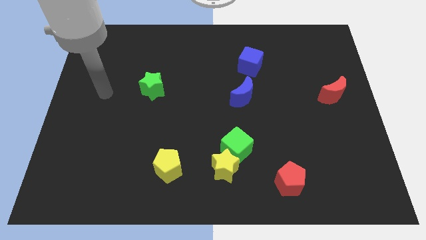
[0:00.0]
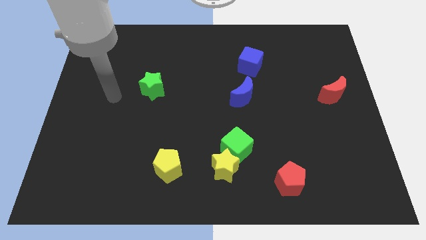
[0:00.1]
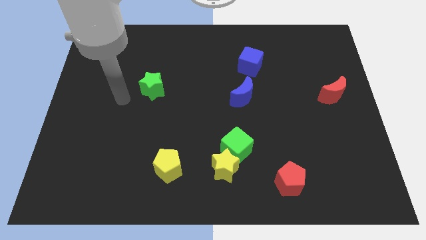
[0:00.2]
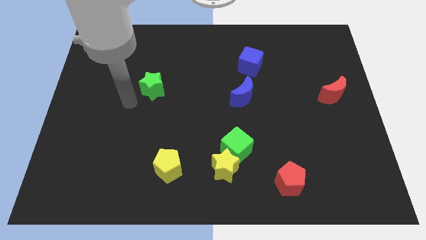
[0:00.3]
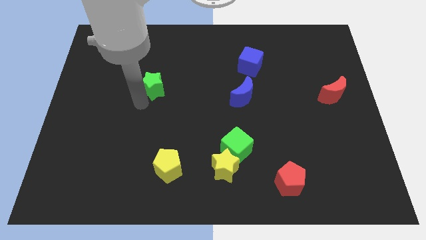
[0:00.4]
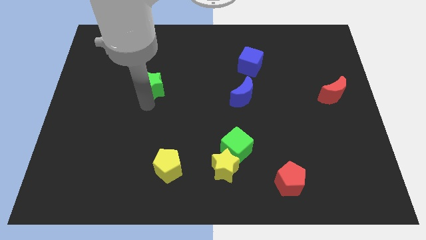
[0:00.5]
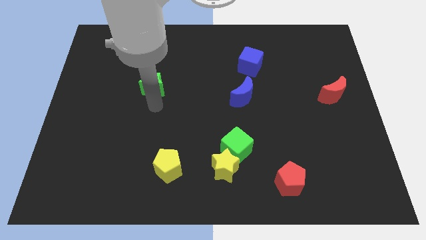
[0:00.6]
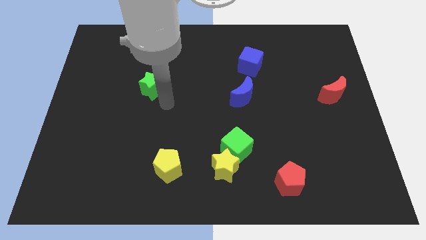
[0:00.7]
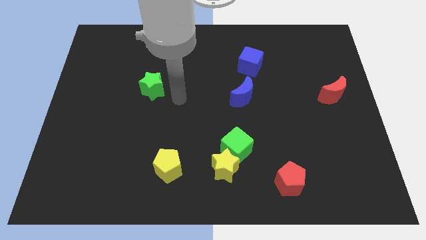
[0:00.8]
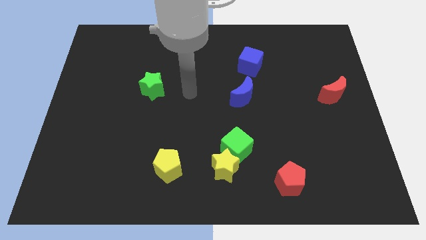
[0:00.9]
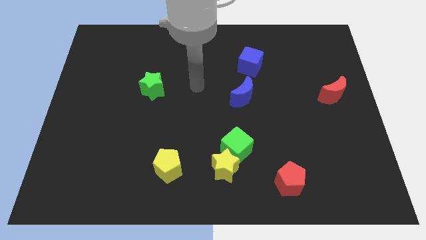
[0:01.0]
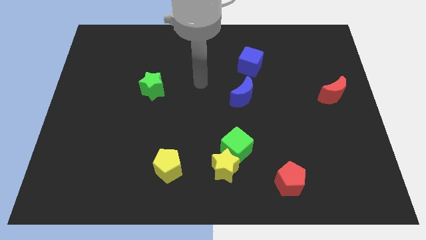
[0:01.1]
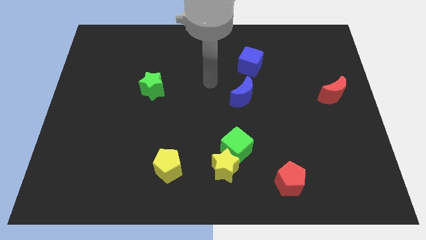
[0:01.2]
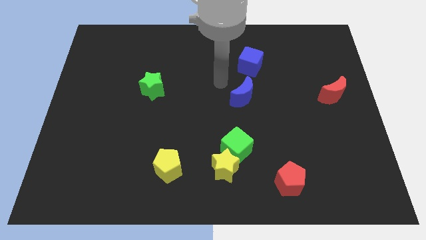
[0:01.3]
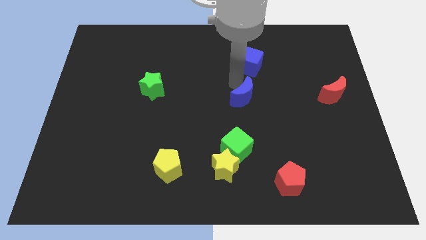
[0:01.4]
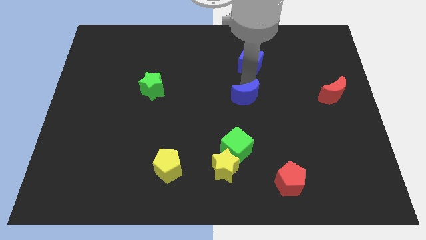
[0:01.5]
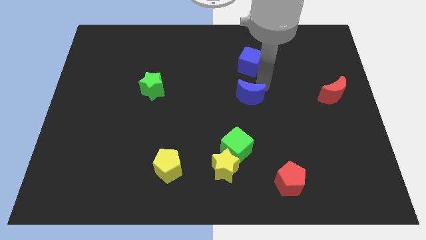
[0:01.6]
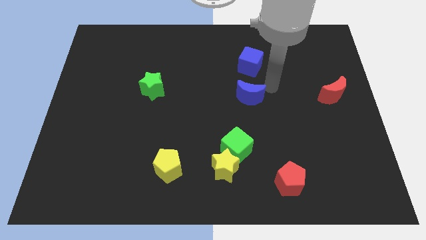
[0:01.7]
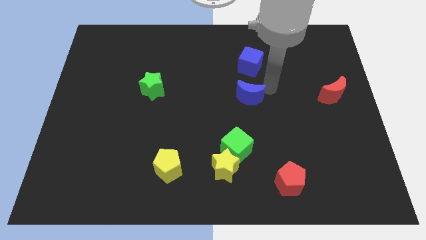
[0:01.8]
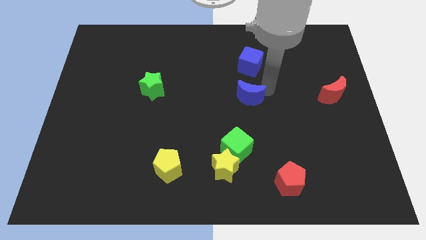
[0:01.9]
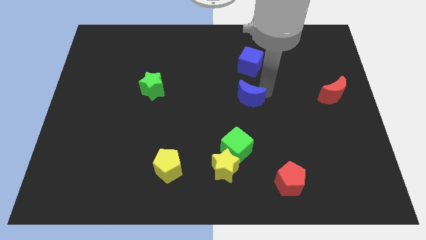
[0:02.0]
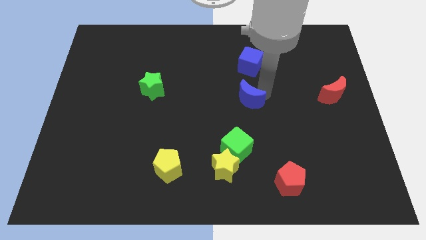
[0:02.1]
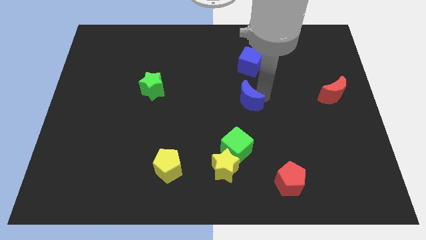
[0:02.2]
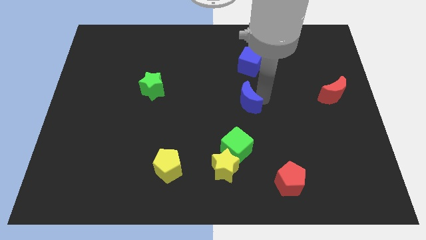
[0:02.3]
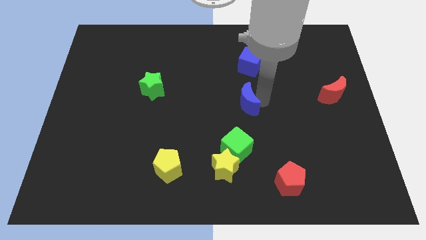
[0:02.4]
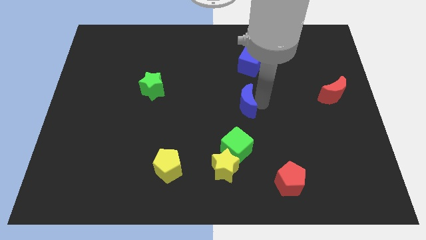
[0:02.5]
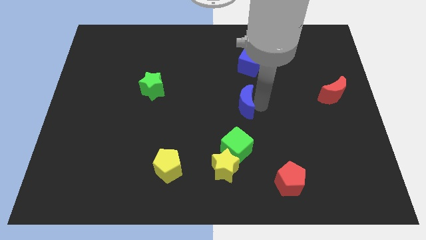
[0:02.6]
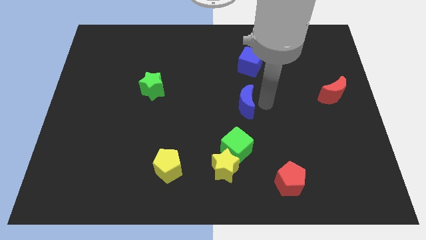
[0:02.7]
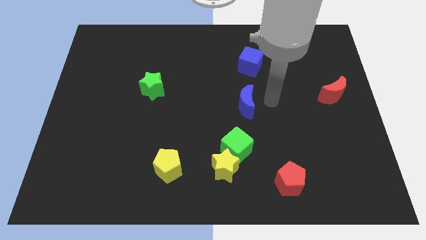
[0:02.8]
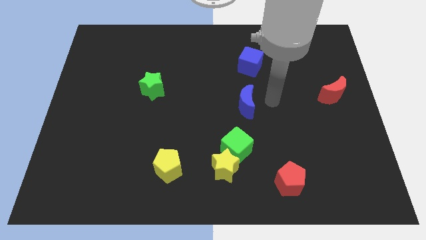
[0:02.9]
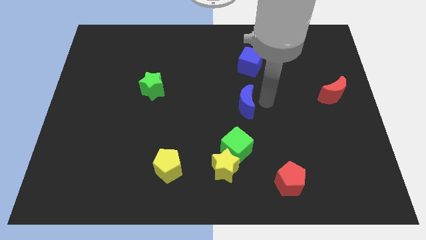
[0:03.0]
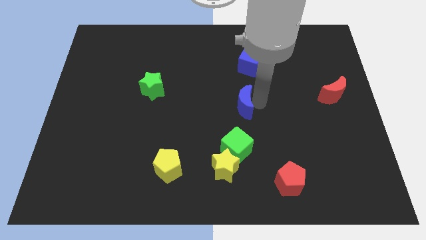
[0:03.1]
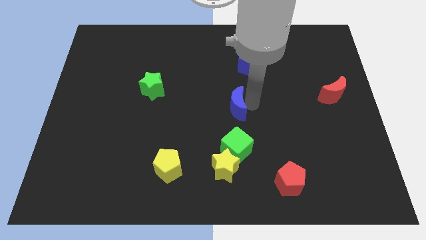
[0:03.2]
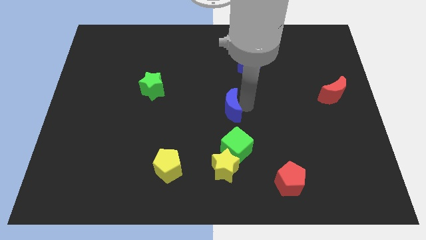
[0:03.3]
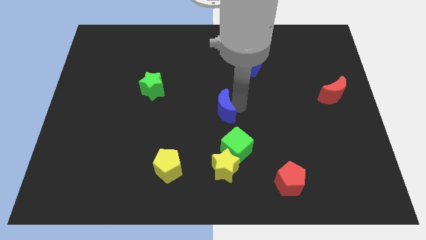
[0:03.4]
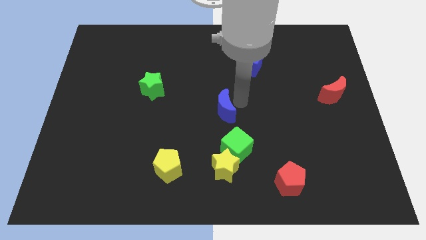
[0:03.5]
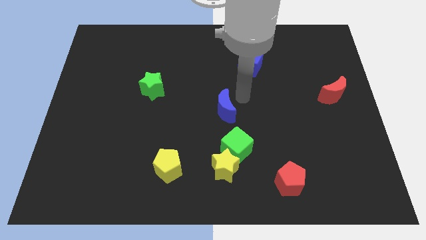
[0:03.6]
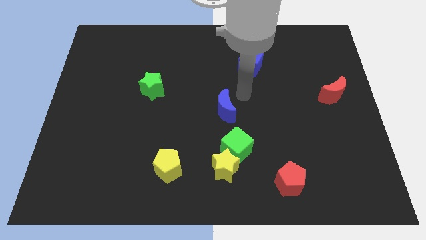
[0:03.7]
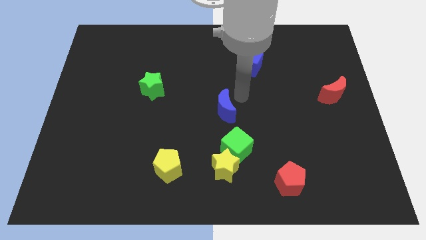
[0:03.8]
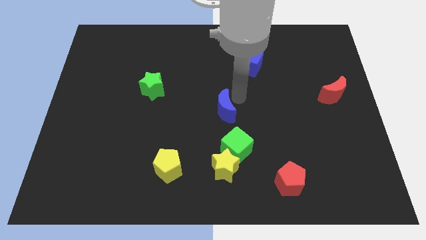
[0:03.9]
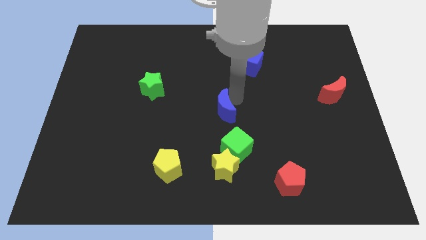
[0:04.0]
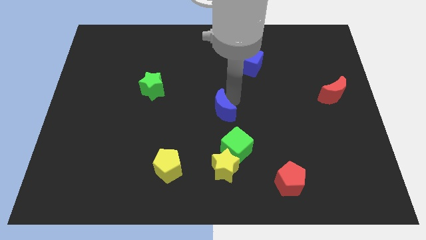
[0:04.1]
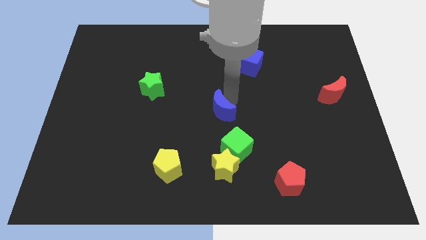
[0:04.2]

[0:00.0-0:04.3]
move the blue moon a little bit downwards and to the left diagonally

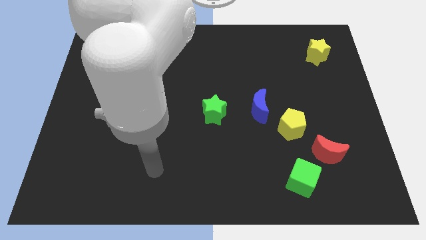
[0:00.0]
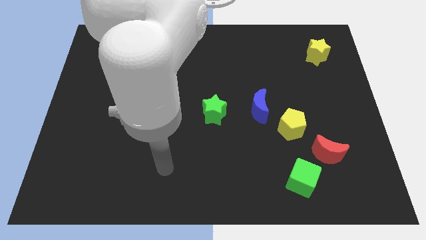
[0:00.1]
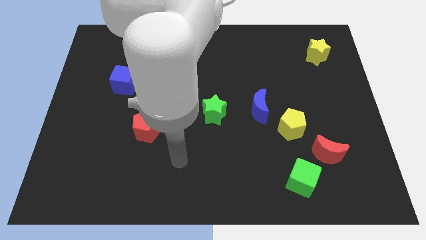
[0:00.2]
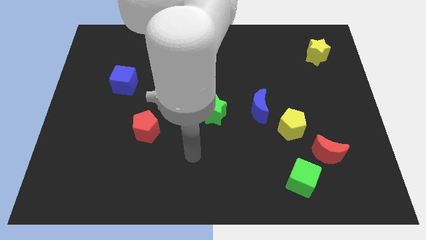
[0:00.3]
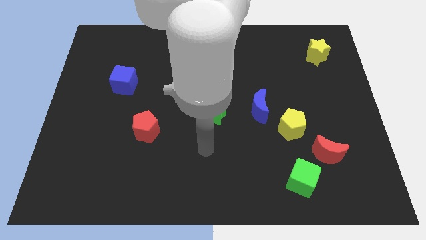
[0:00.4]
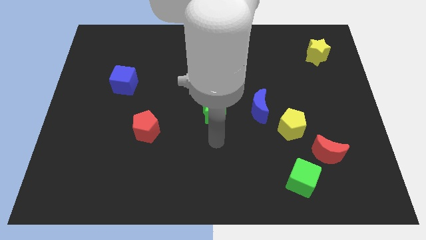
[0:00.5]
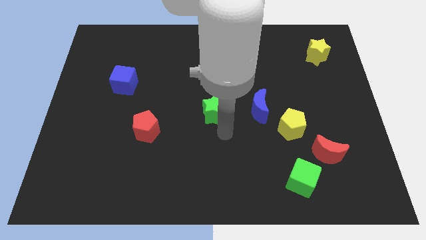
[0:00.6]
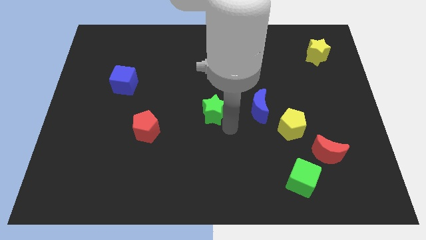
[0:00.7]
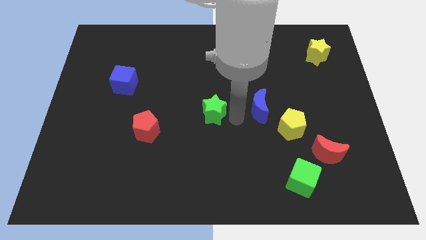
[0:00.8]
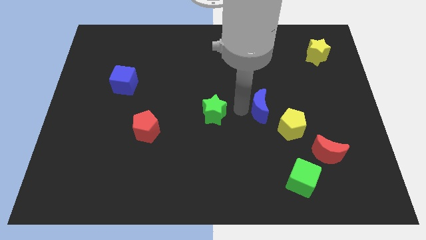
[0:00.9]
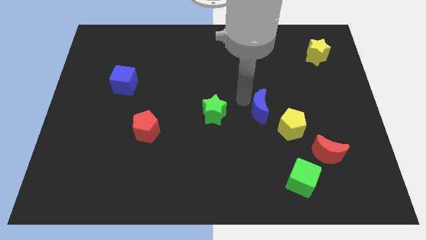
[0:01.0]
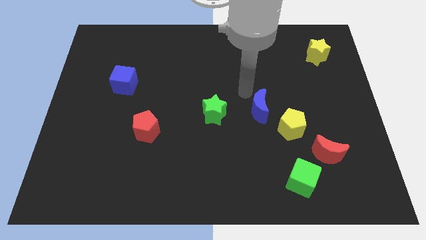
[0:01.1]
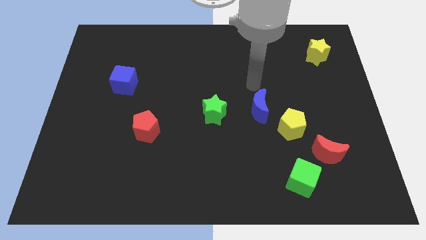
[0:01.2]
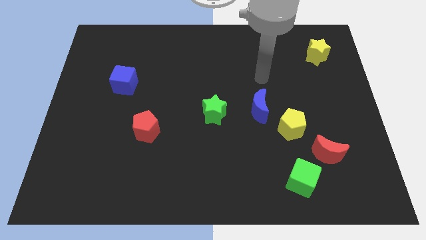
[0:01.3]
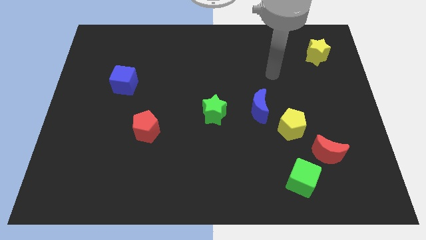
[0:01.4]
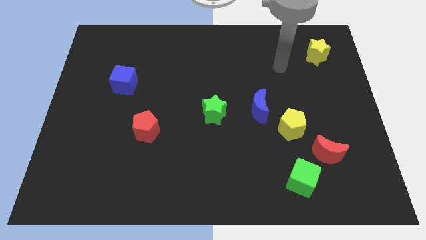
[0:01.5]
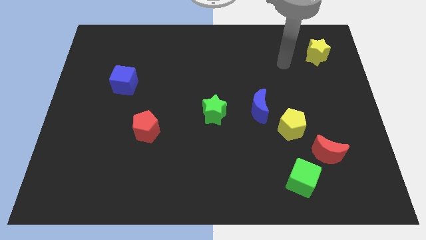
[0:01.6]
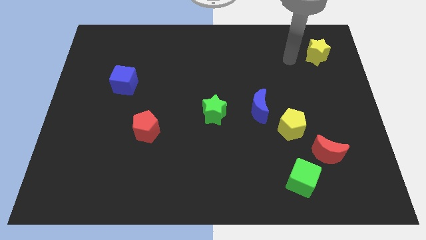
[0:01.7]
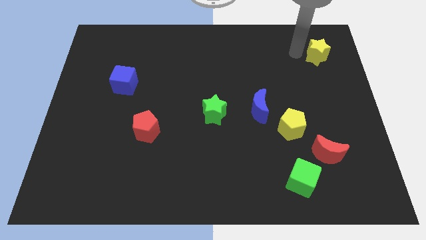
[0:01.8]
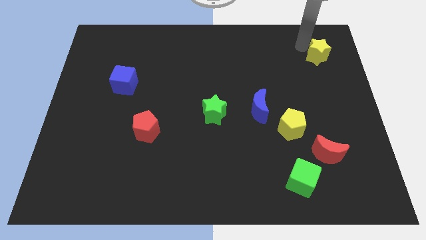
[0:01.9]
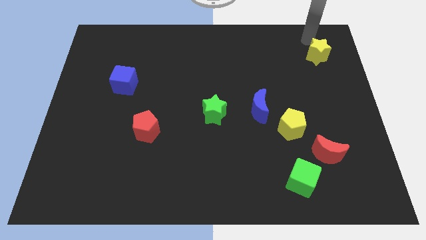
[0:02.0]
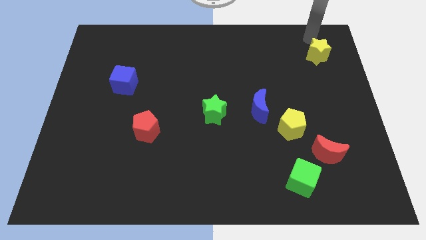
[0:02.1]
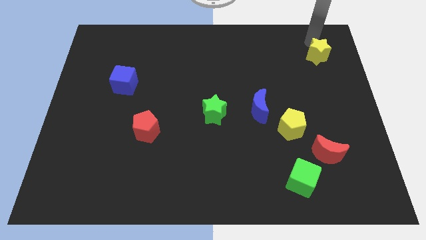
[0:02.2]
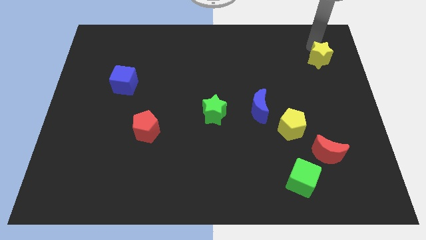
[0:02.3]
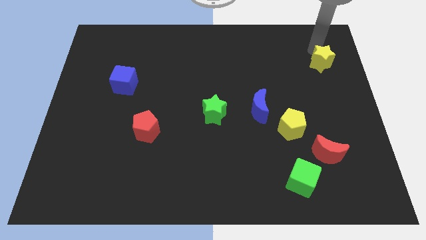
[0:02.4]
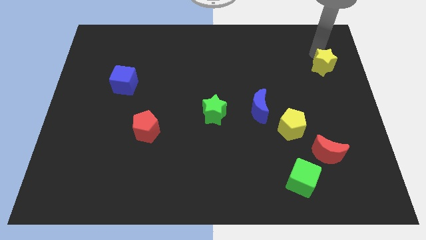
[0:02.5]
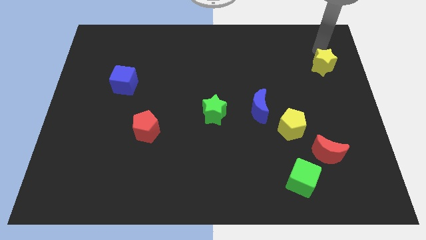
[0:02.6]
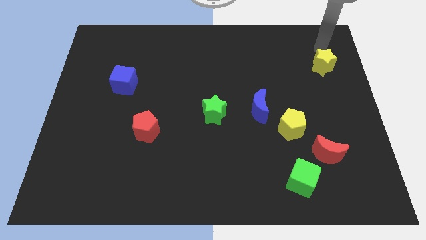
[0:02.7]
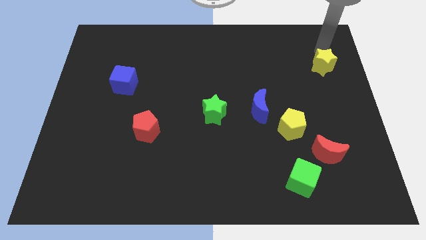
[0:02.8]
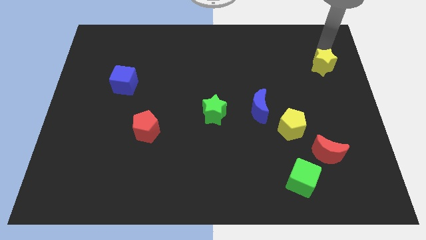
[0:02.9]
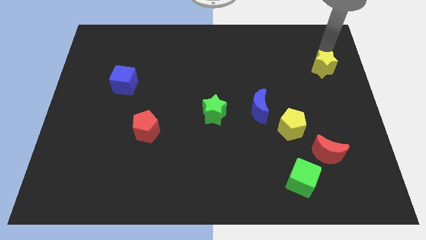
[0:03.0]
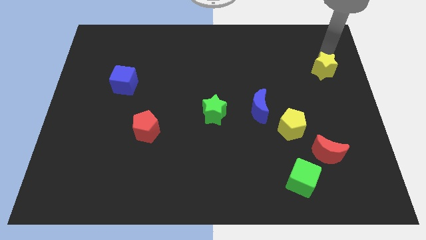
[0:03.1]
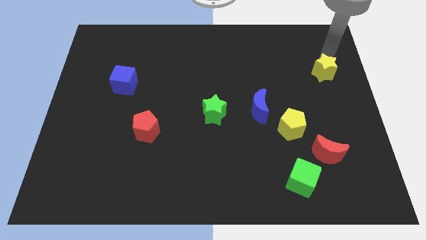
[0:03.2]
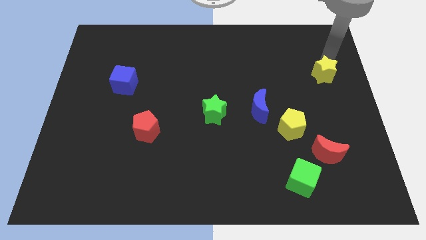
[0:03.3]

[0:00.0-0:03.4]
slightly slide the yellow star downwards

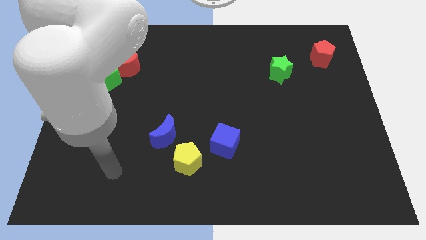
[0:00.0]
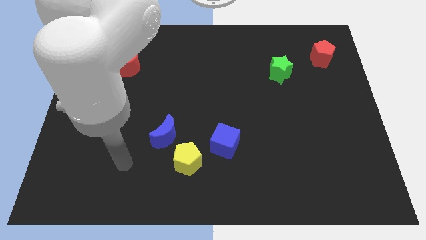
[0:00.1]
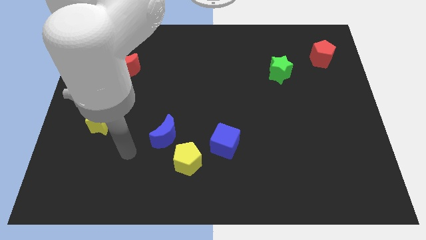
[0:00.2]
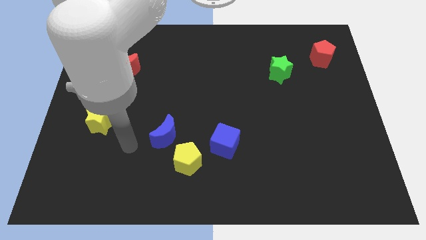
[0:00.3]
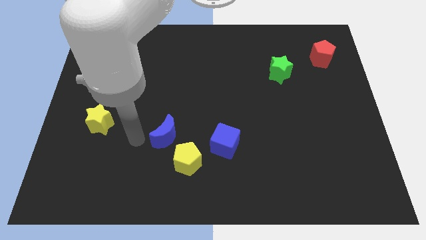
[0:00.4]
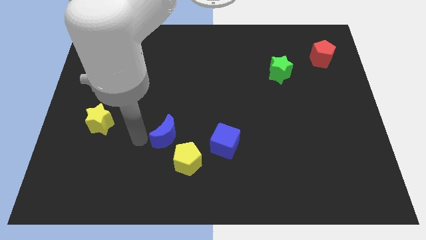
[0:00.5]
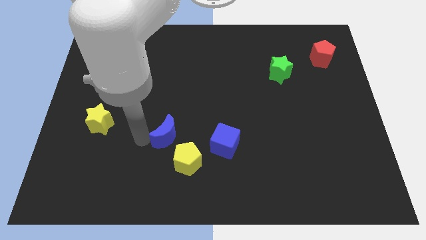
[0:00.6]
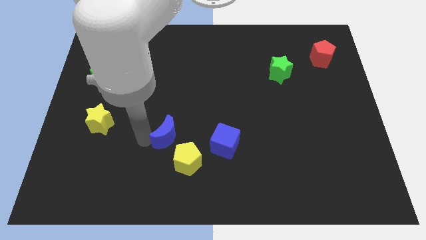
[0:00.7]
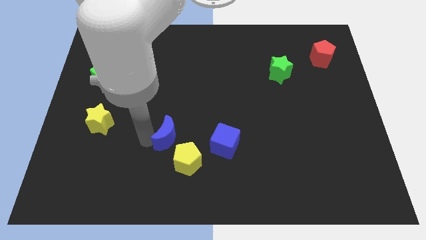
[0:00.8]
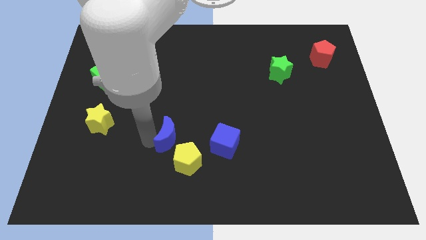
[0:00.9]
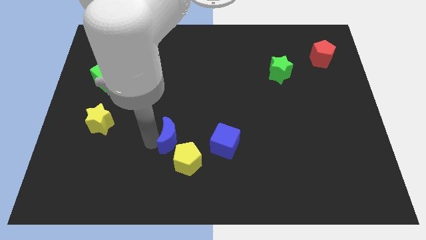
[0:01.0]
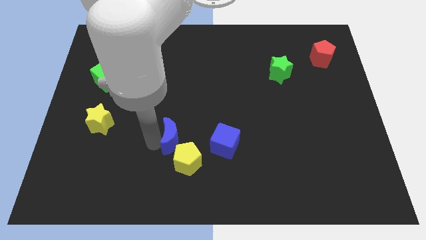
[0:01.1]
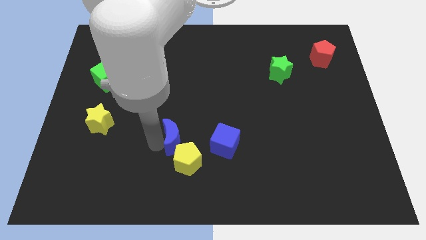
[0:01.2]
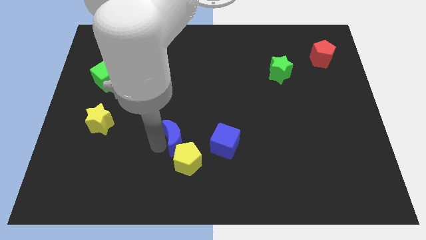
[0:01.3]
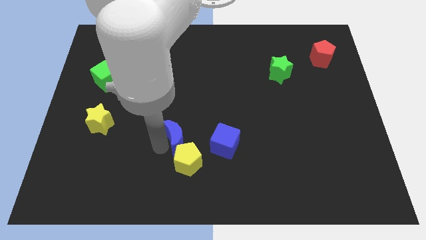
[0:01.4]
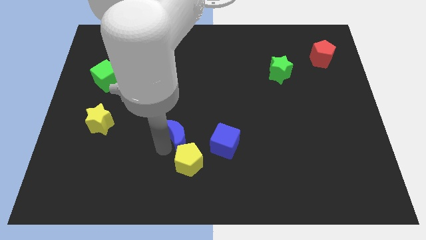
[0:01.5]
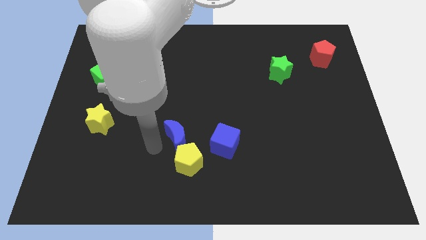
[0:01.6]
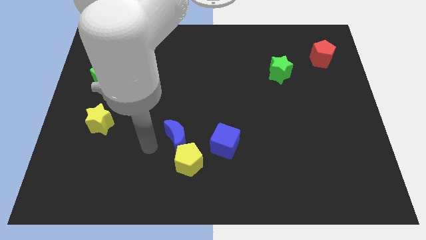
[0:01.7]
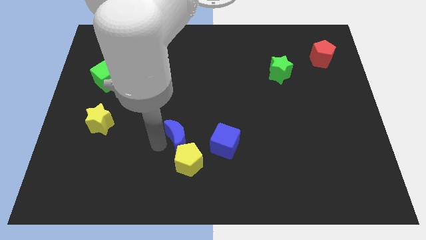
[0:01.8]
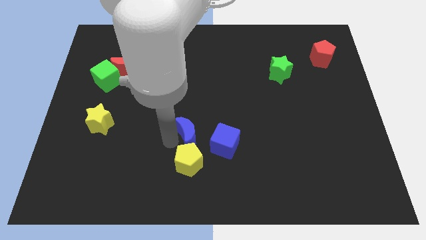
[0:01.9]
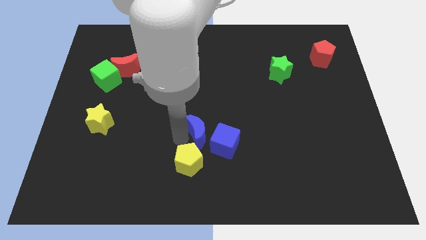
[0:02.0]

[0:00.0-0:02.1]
push the blue moon to the right a little
